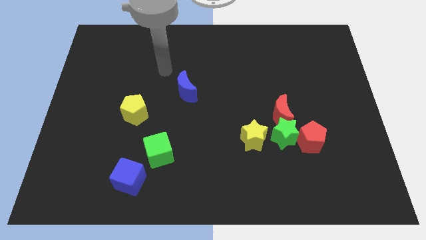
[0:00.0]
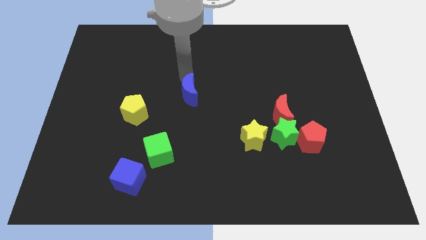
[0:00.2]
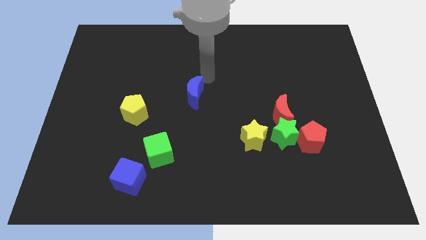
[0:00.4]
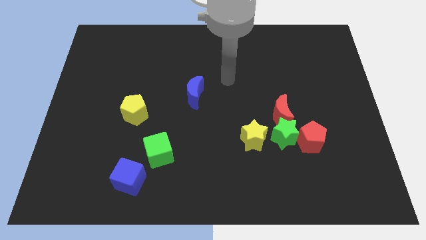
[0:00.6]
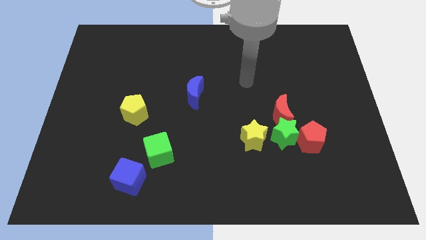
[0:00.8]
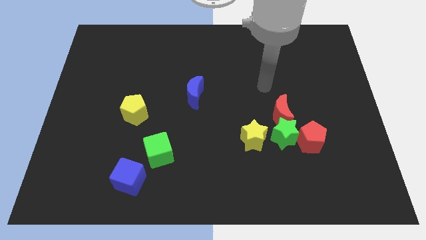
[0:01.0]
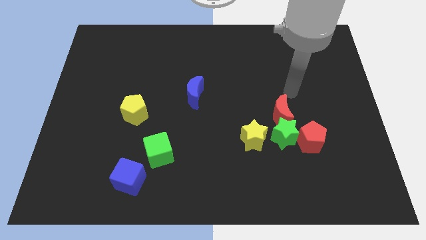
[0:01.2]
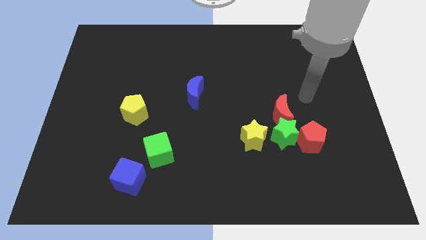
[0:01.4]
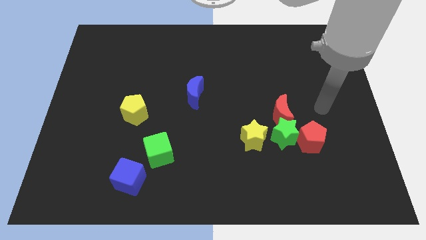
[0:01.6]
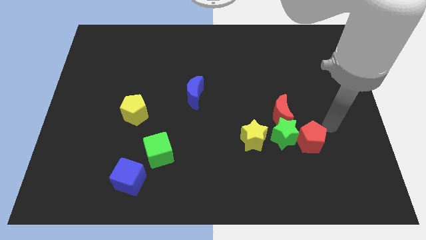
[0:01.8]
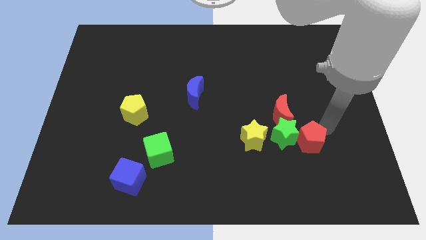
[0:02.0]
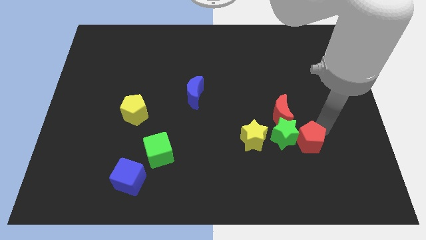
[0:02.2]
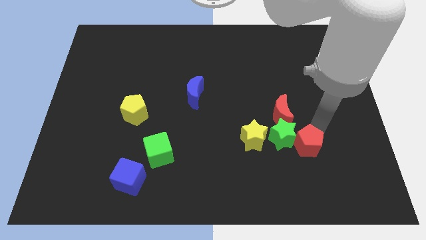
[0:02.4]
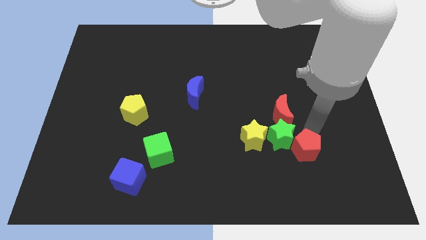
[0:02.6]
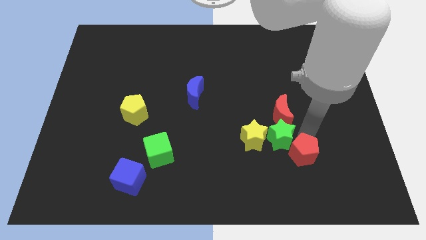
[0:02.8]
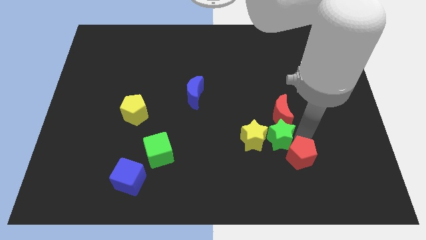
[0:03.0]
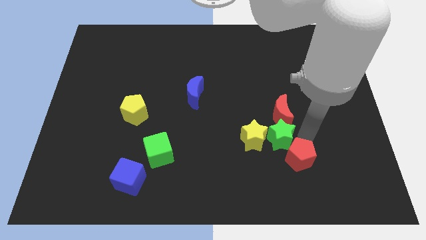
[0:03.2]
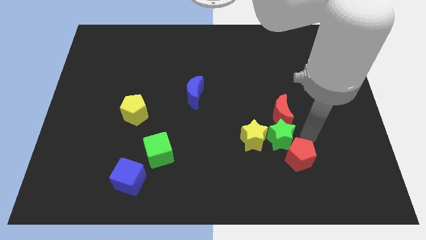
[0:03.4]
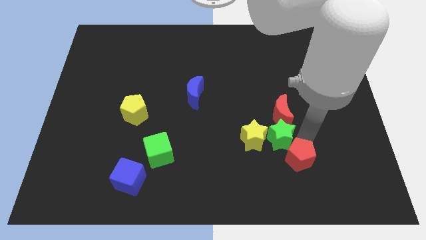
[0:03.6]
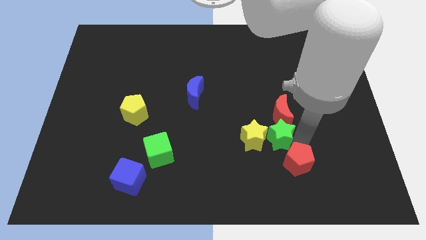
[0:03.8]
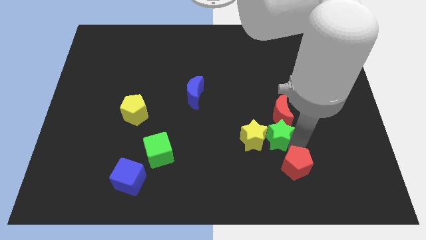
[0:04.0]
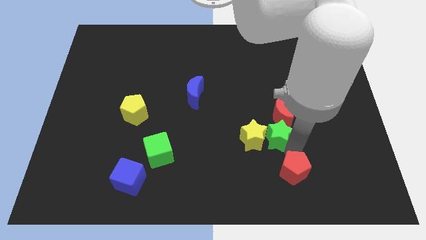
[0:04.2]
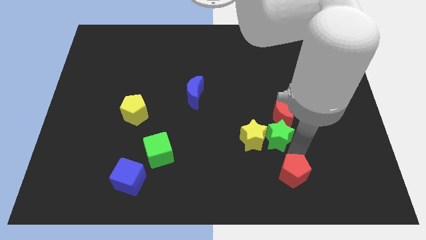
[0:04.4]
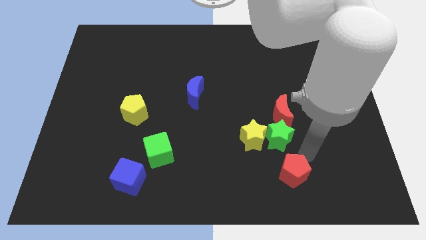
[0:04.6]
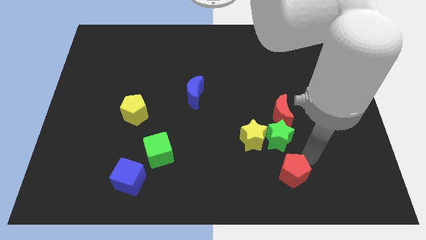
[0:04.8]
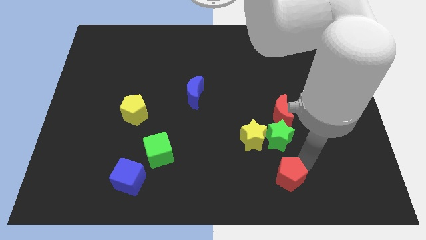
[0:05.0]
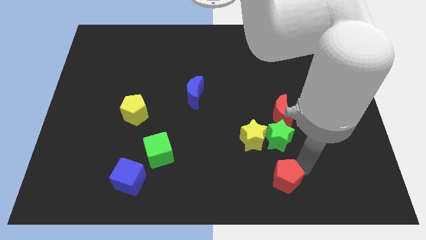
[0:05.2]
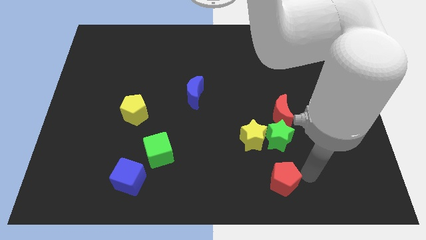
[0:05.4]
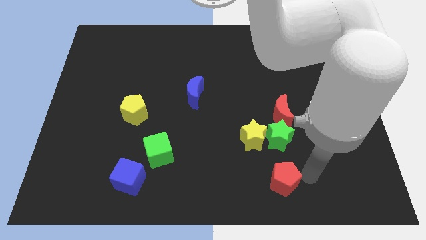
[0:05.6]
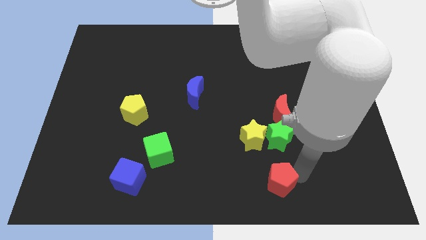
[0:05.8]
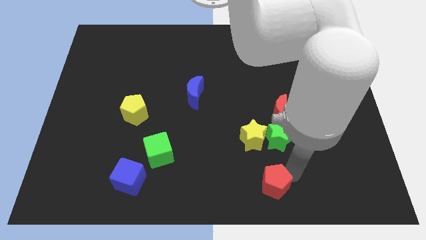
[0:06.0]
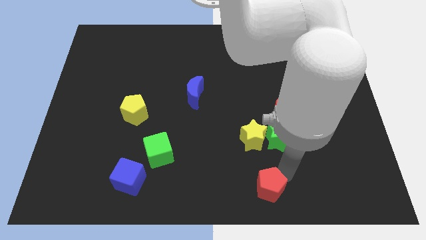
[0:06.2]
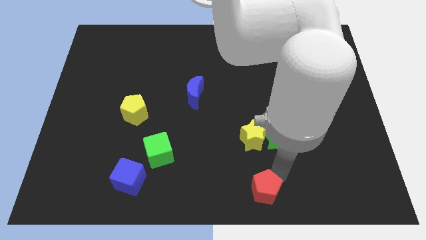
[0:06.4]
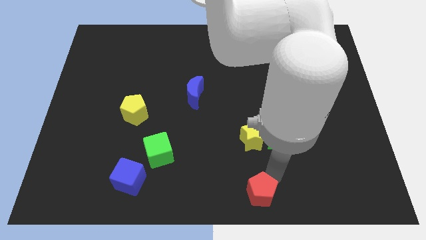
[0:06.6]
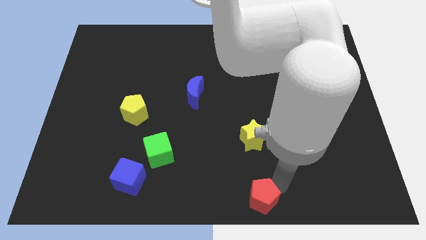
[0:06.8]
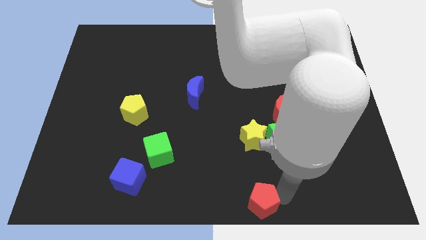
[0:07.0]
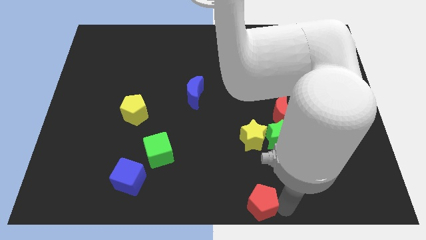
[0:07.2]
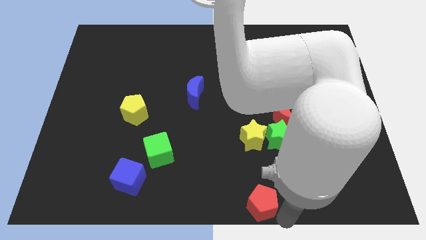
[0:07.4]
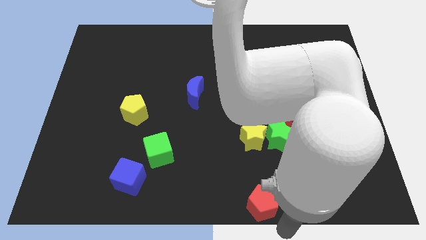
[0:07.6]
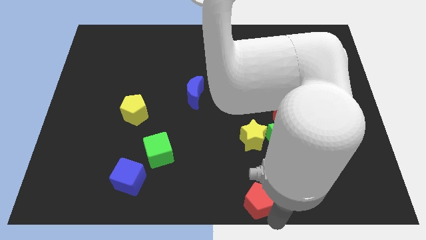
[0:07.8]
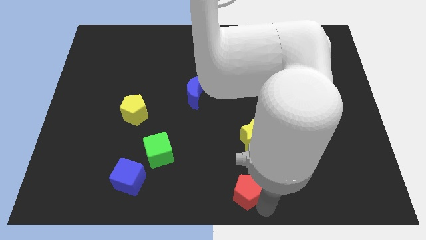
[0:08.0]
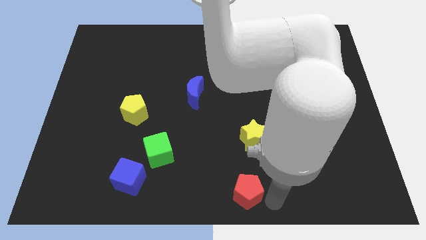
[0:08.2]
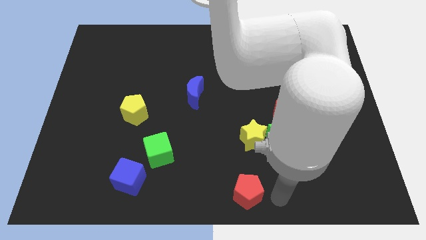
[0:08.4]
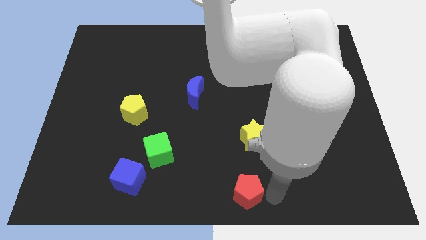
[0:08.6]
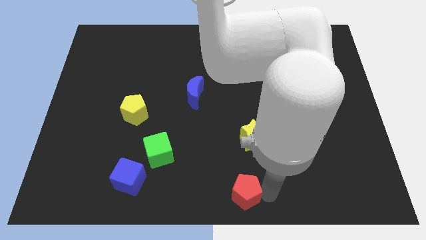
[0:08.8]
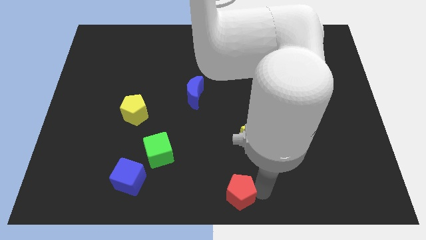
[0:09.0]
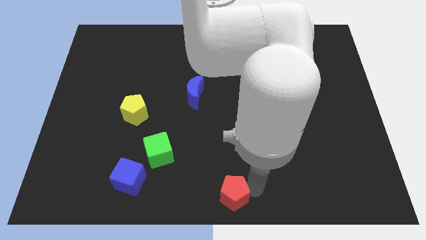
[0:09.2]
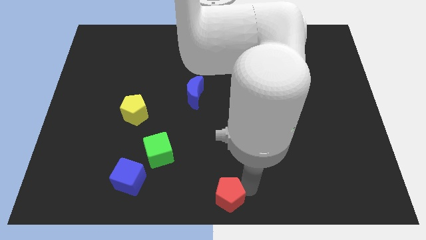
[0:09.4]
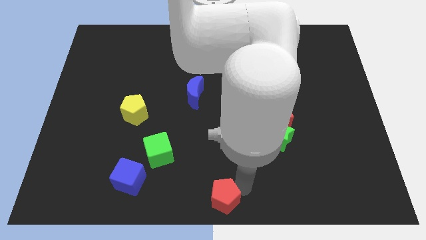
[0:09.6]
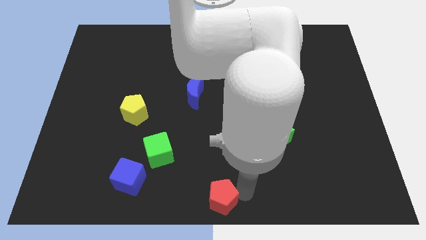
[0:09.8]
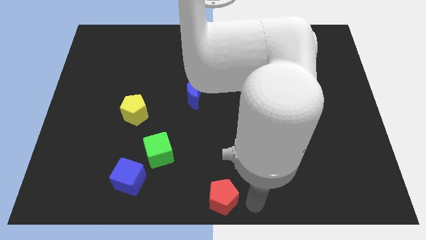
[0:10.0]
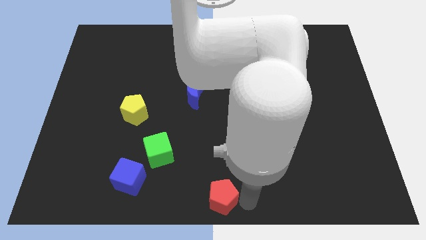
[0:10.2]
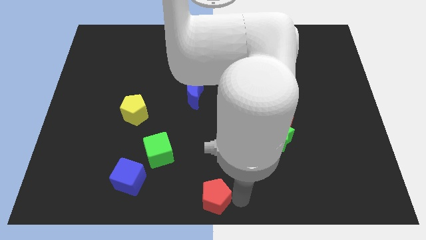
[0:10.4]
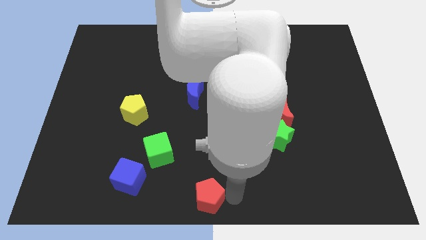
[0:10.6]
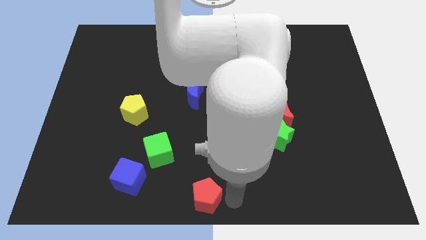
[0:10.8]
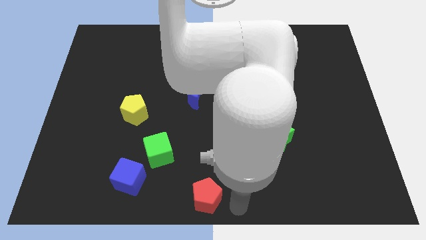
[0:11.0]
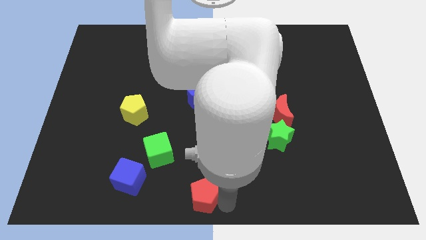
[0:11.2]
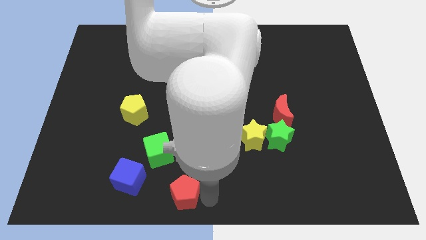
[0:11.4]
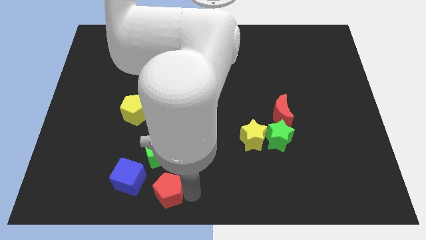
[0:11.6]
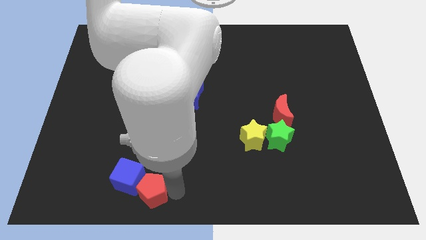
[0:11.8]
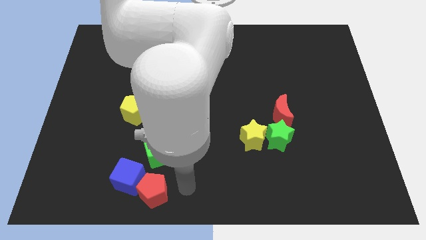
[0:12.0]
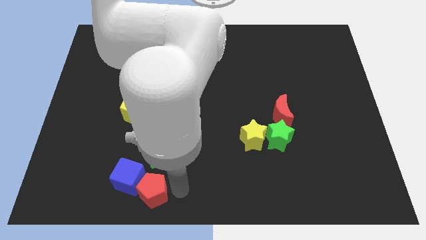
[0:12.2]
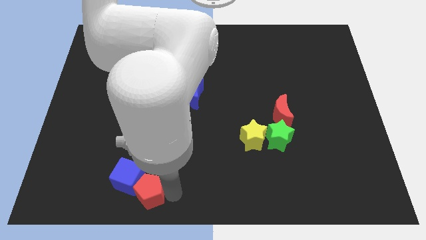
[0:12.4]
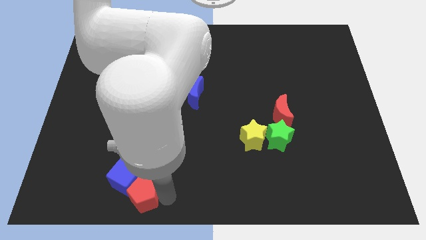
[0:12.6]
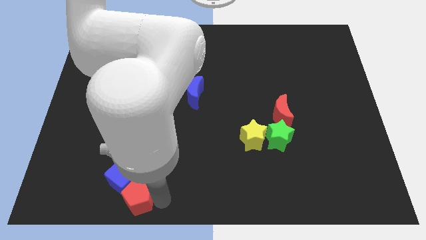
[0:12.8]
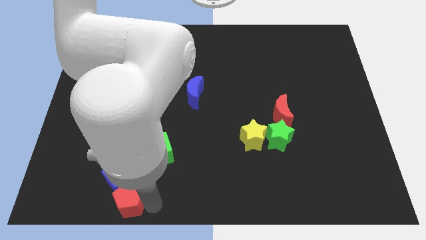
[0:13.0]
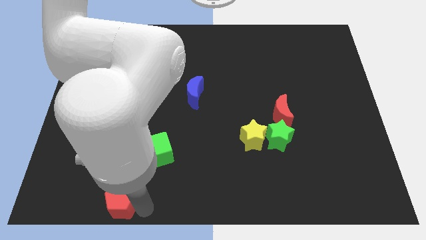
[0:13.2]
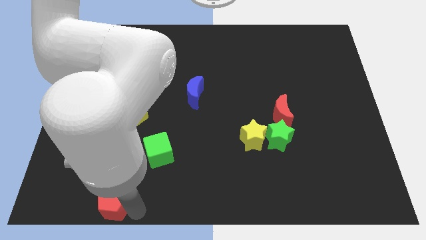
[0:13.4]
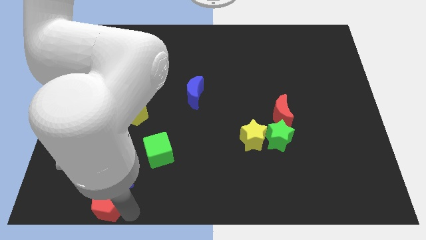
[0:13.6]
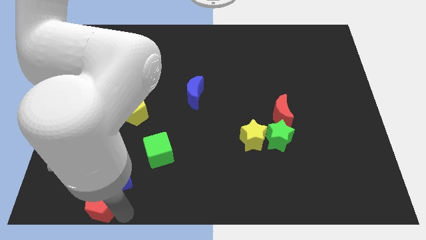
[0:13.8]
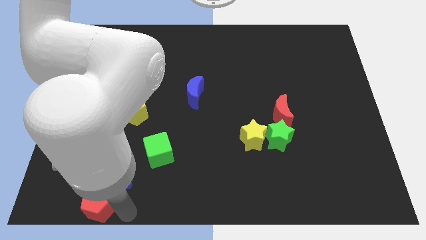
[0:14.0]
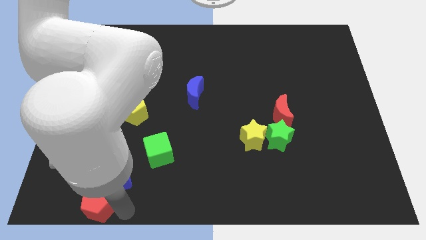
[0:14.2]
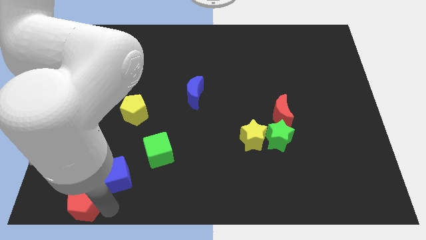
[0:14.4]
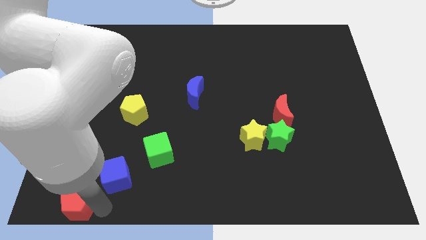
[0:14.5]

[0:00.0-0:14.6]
move the red pentagon to the bottom left corner
